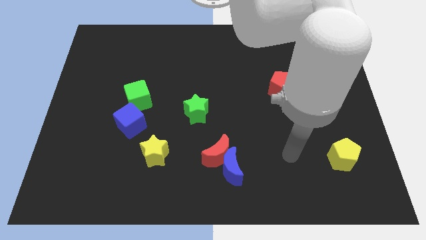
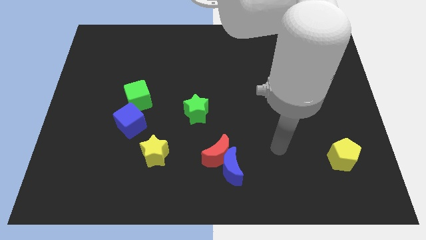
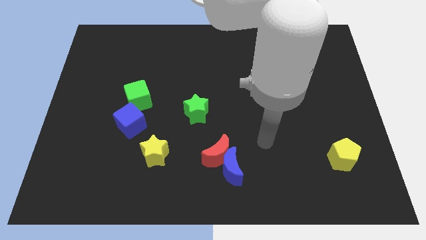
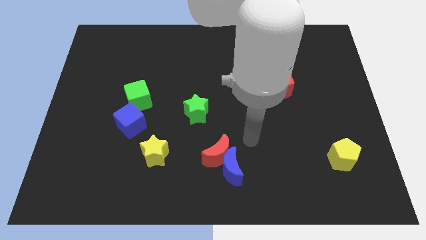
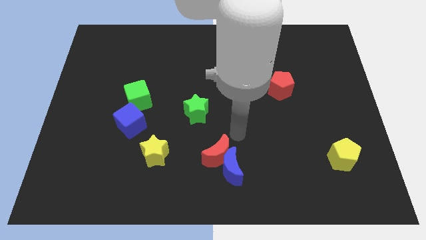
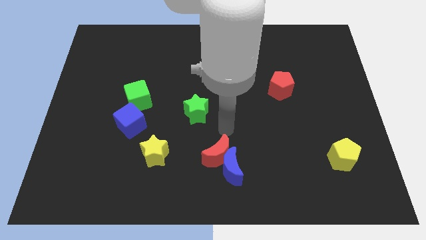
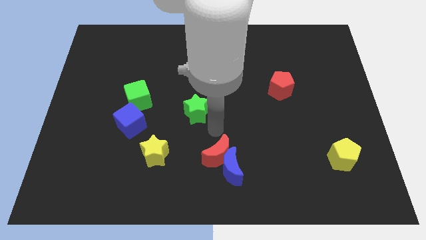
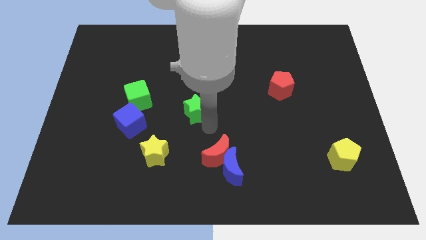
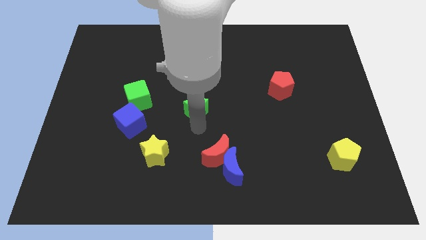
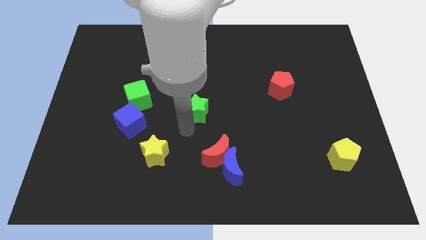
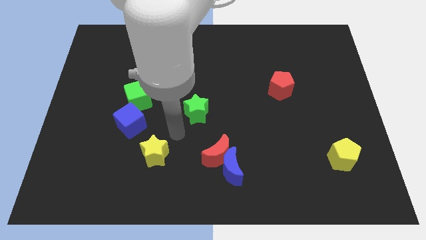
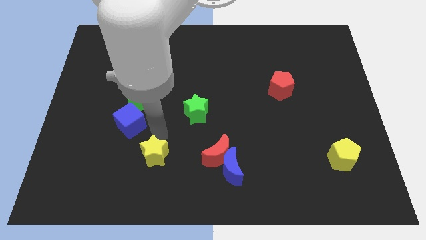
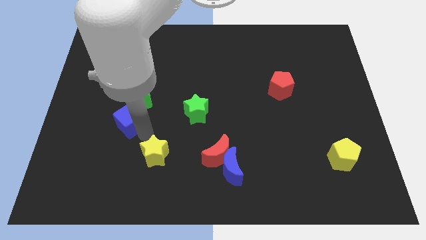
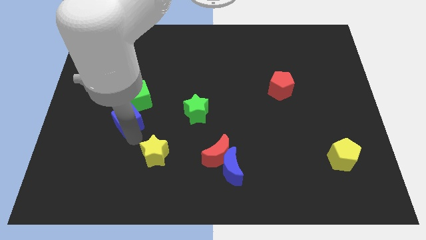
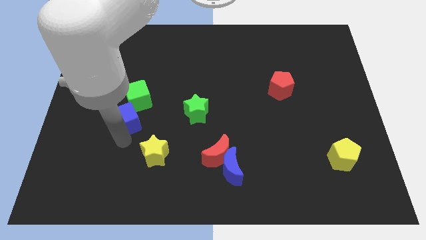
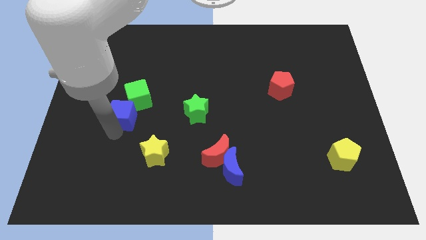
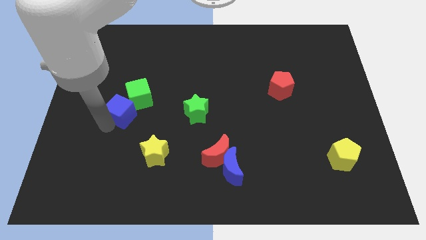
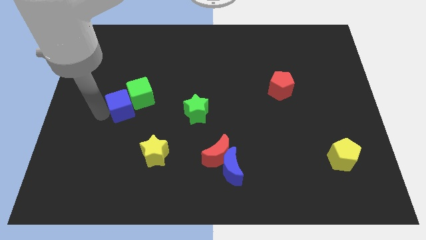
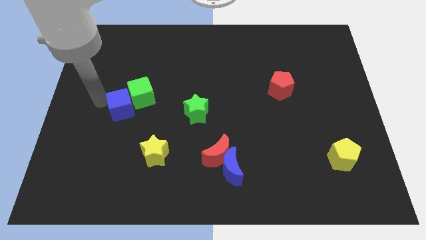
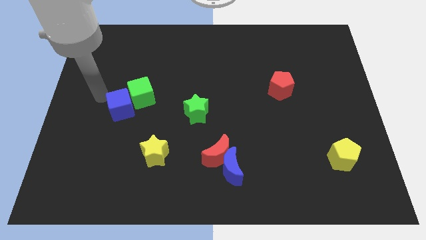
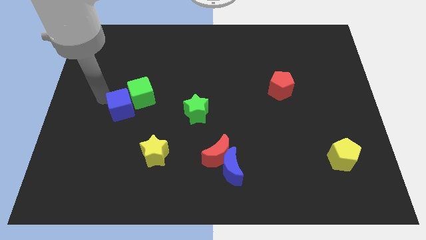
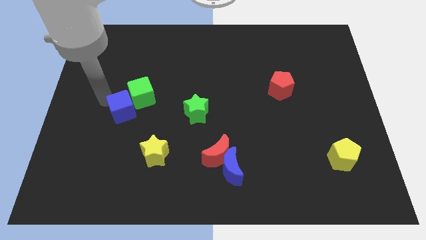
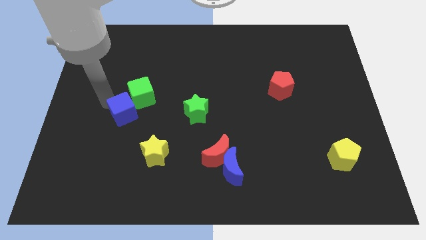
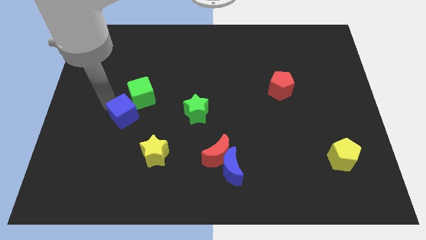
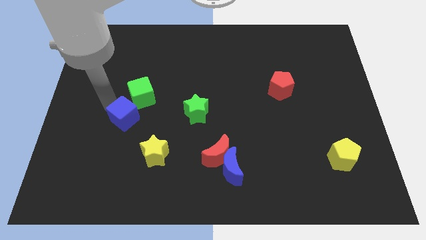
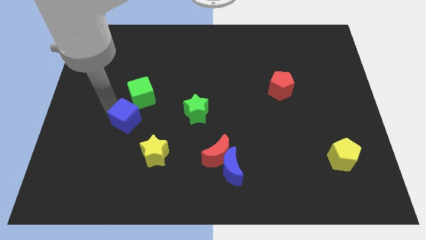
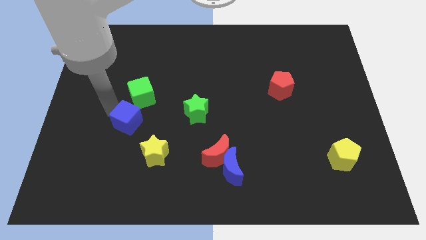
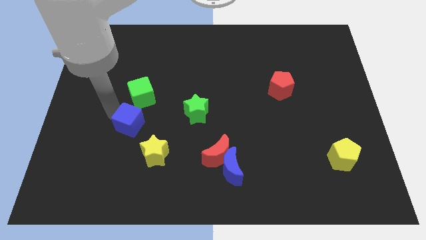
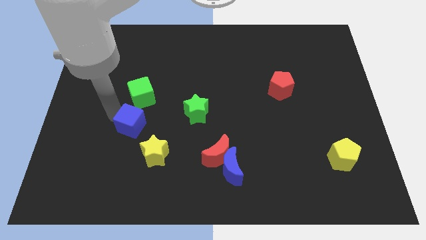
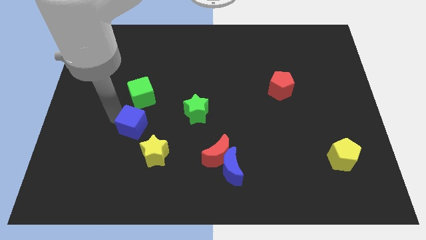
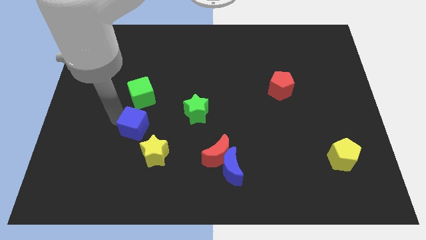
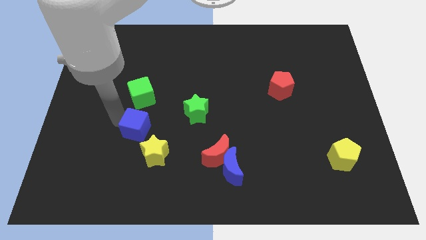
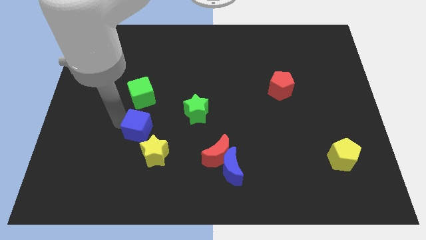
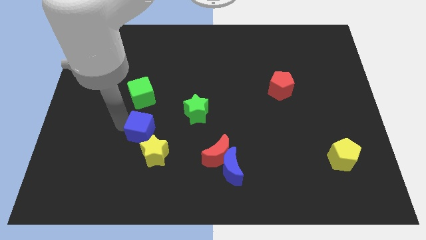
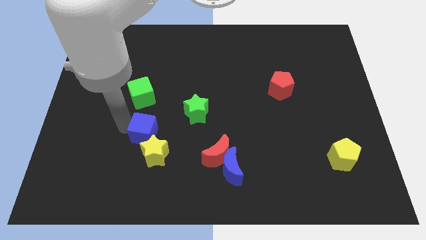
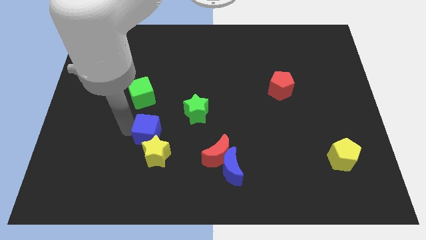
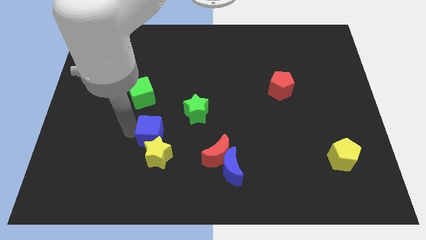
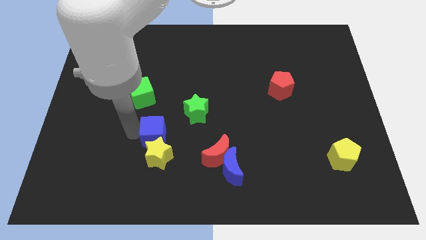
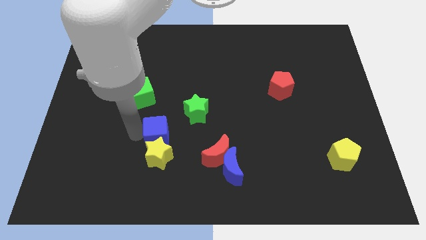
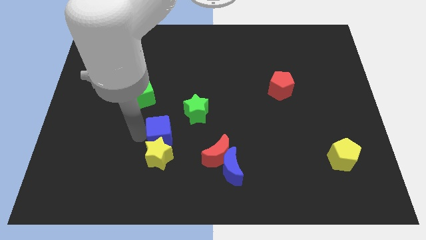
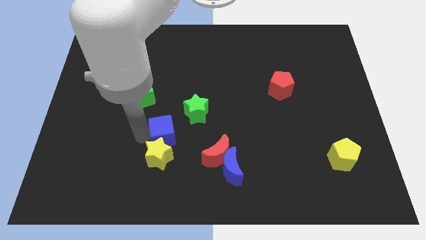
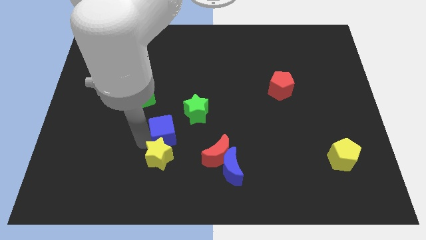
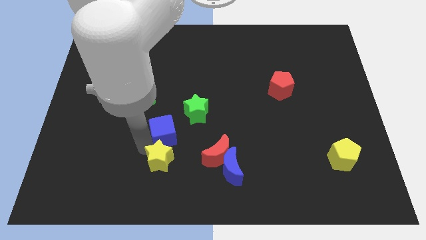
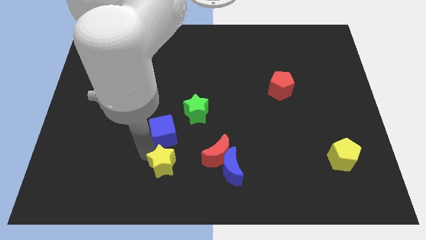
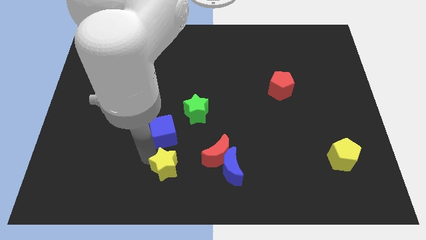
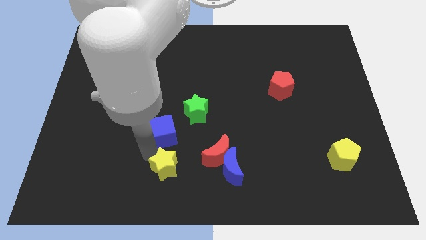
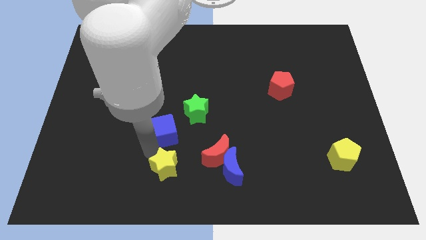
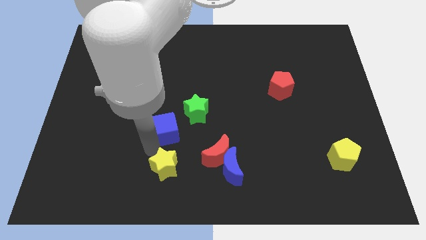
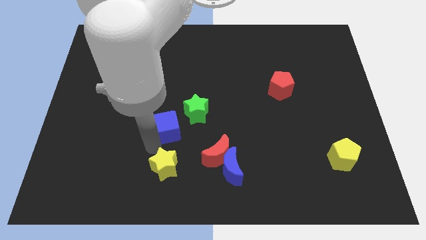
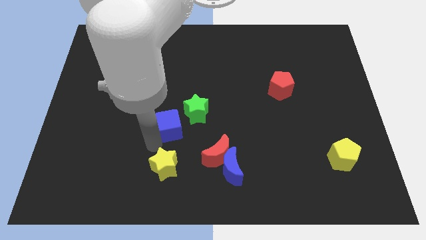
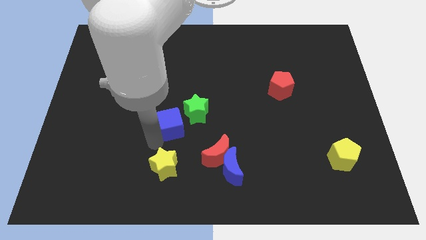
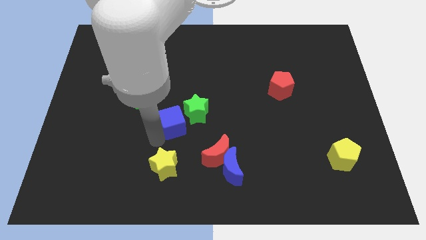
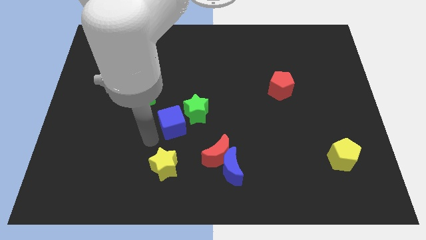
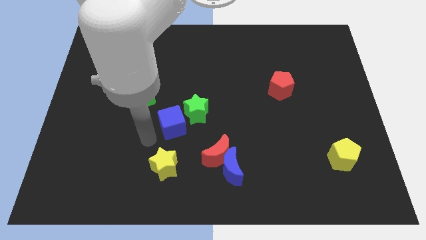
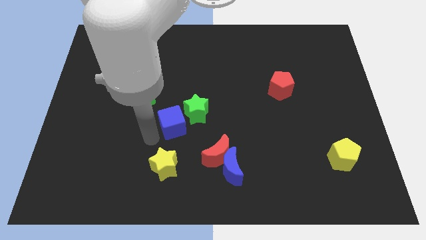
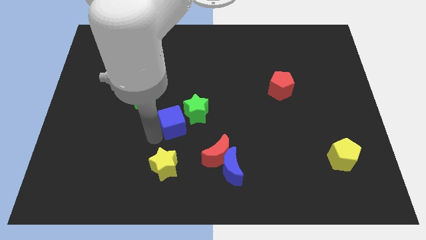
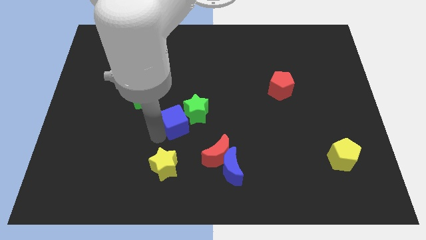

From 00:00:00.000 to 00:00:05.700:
slide the blue cube to the green star
